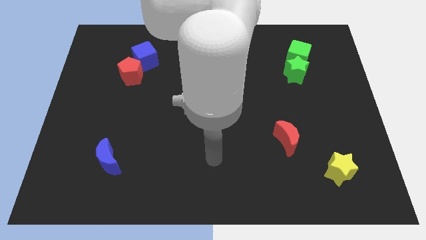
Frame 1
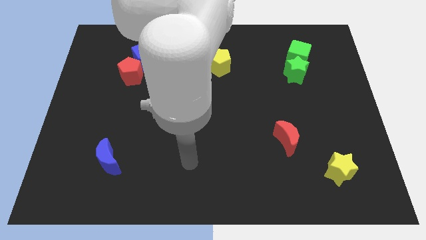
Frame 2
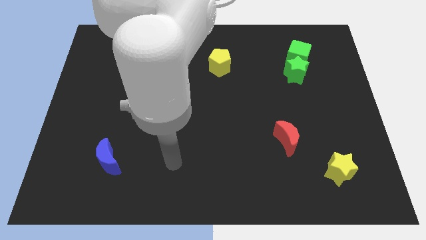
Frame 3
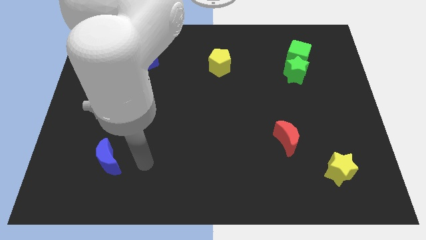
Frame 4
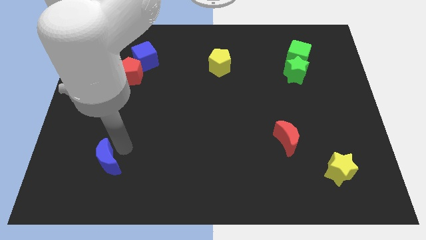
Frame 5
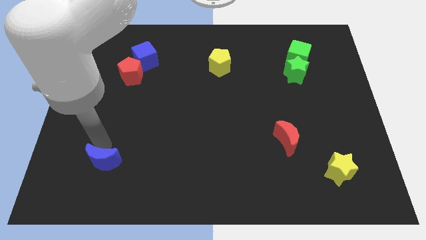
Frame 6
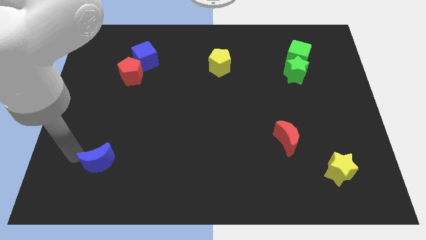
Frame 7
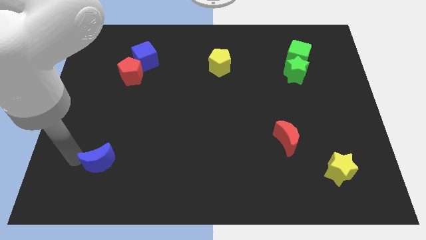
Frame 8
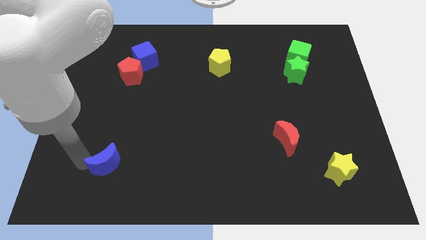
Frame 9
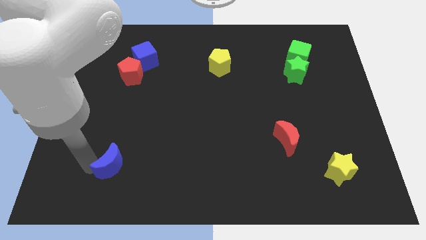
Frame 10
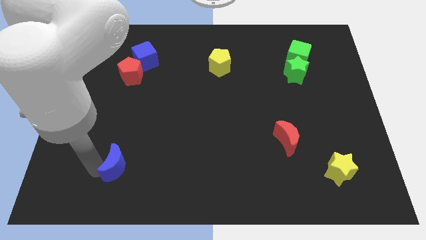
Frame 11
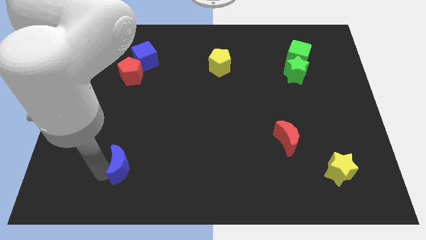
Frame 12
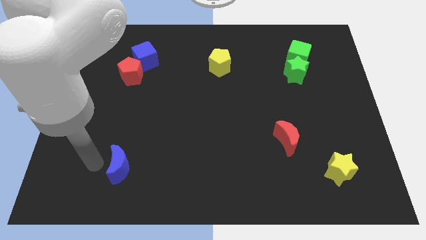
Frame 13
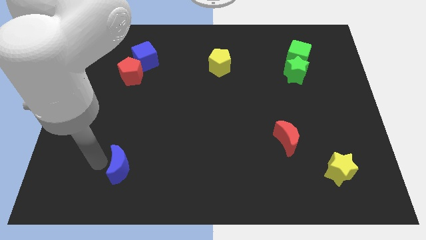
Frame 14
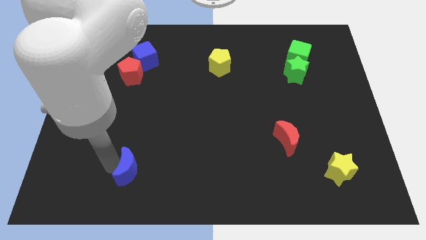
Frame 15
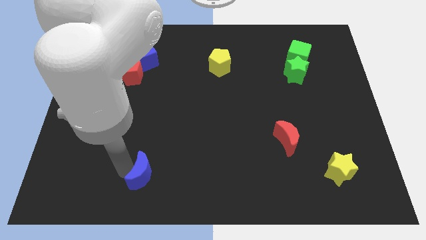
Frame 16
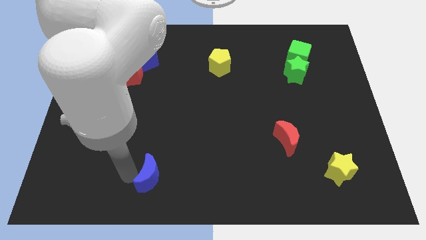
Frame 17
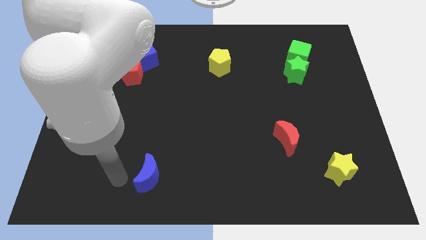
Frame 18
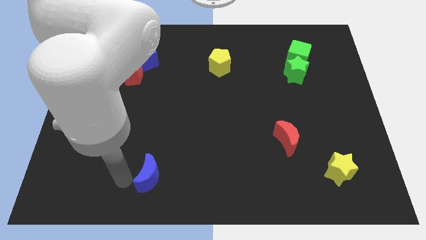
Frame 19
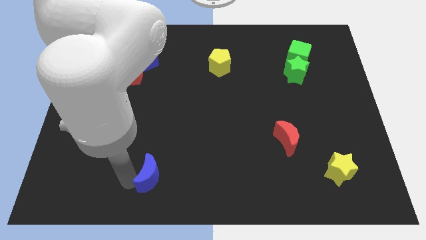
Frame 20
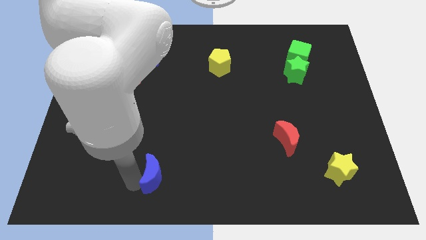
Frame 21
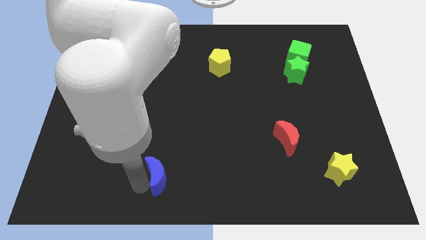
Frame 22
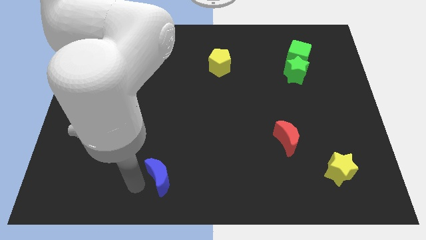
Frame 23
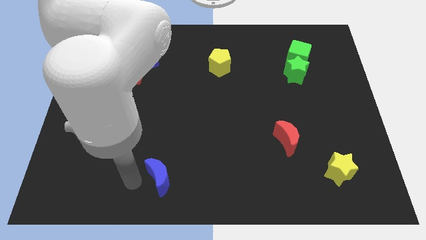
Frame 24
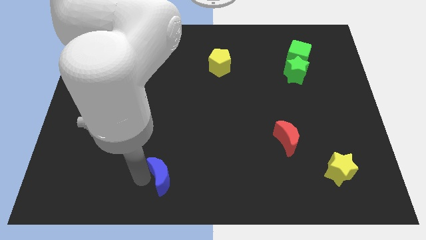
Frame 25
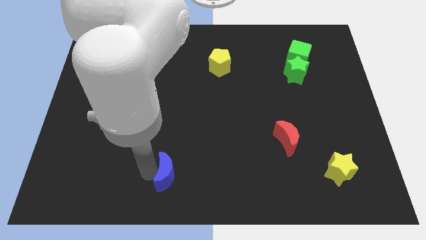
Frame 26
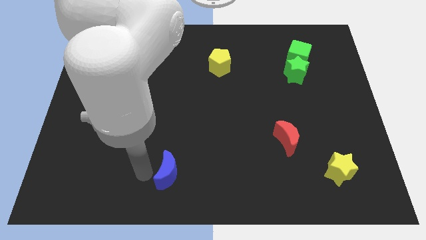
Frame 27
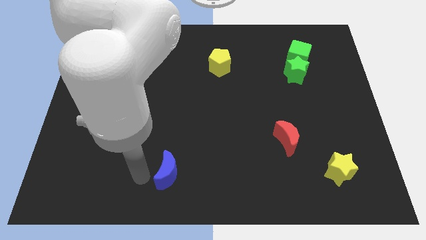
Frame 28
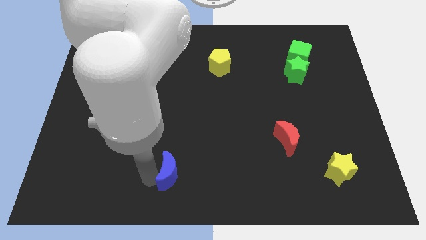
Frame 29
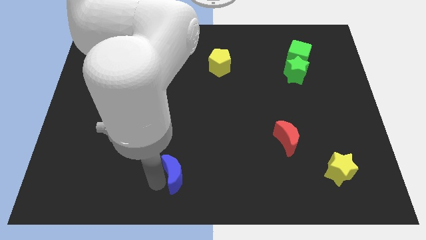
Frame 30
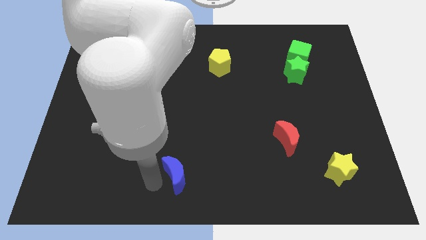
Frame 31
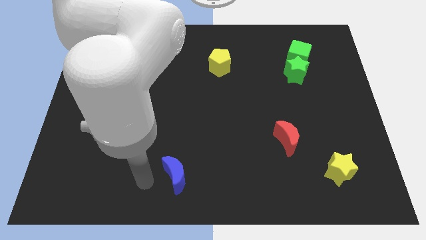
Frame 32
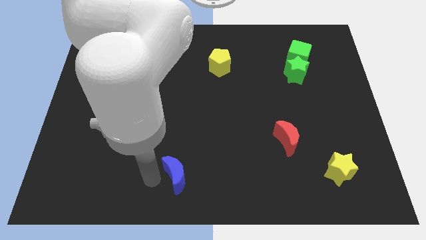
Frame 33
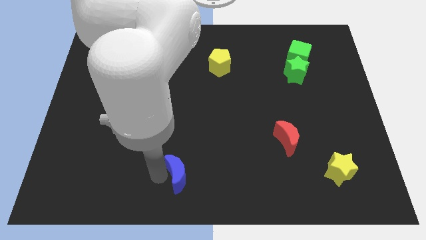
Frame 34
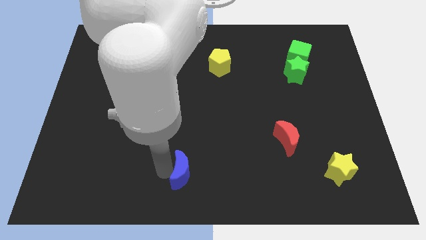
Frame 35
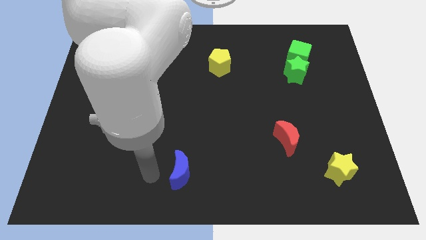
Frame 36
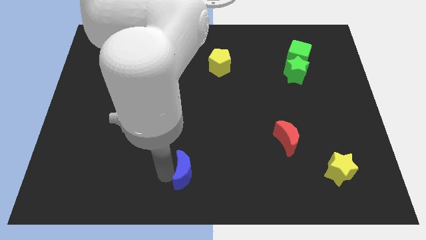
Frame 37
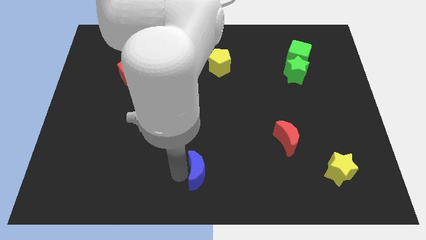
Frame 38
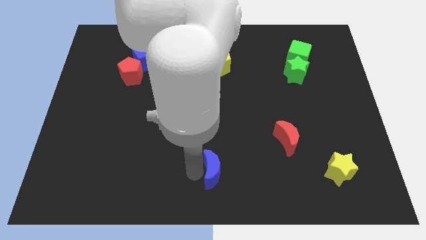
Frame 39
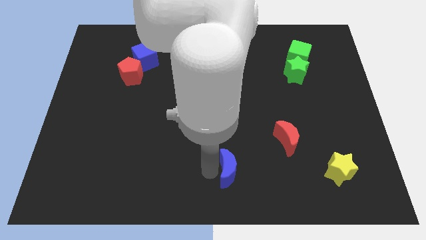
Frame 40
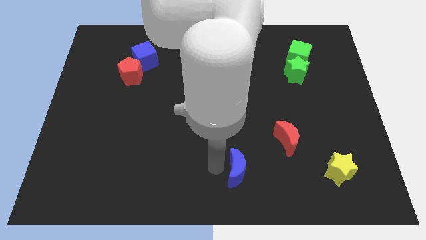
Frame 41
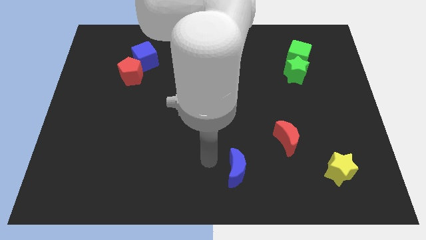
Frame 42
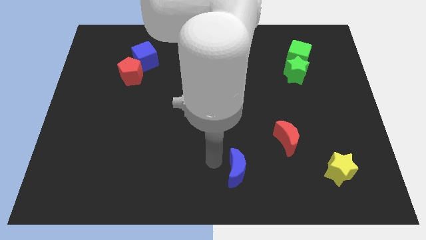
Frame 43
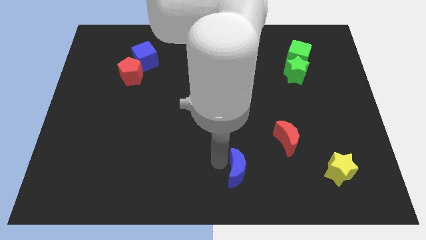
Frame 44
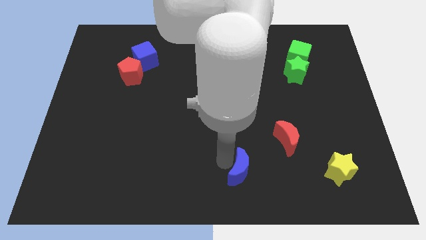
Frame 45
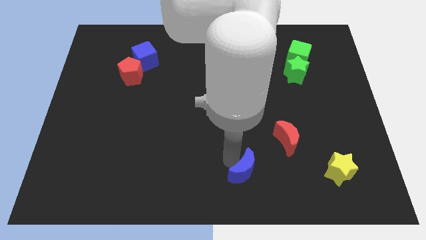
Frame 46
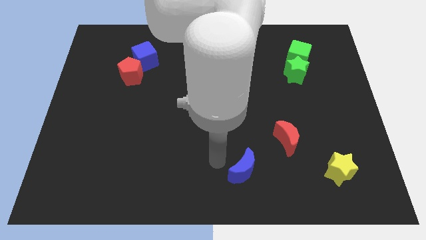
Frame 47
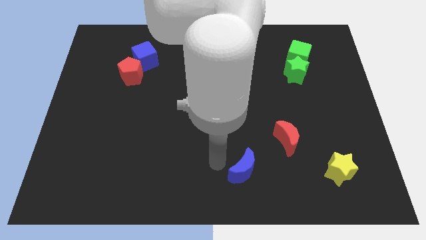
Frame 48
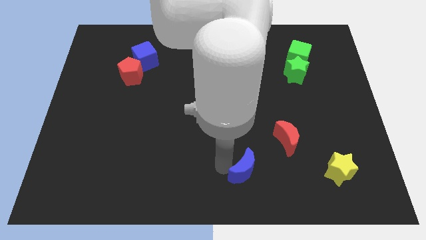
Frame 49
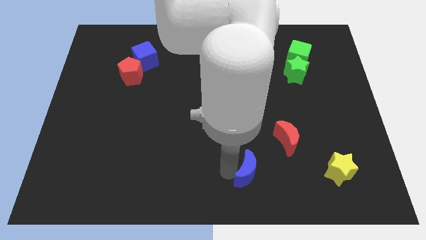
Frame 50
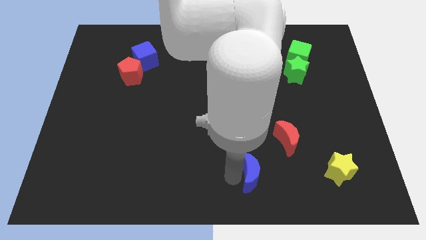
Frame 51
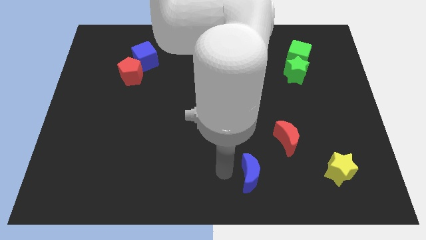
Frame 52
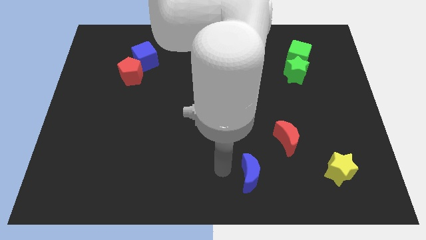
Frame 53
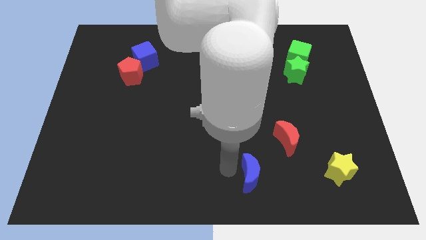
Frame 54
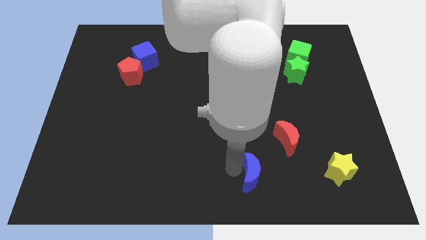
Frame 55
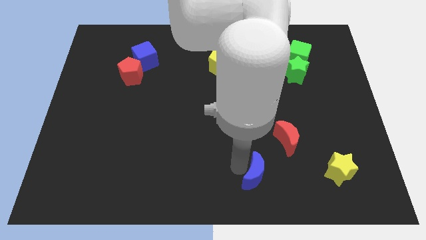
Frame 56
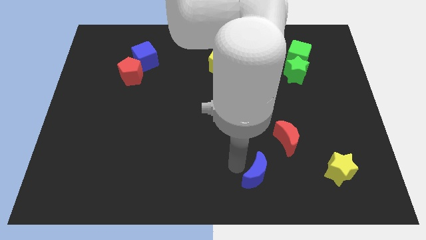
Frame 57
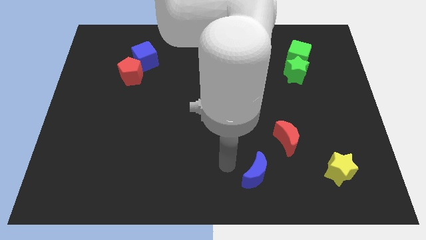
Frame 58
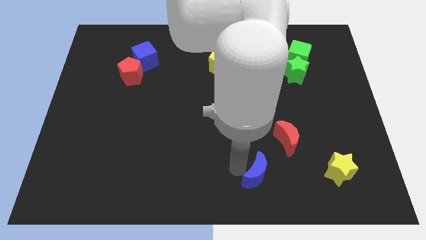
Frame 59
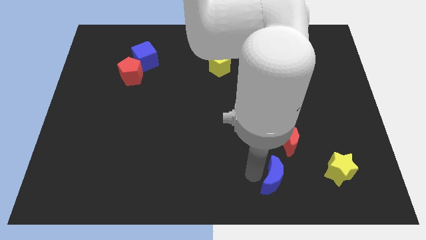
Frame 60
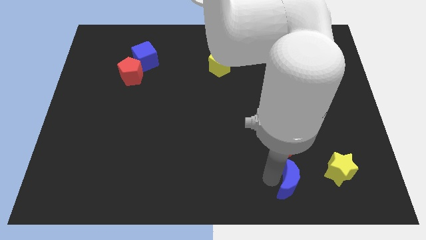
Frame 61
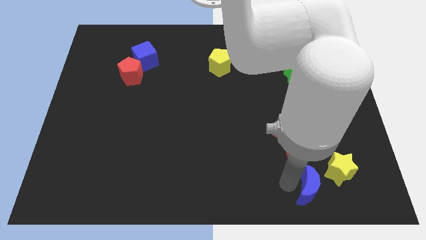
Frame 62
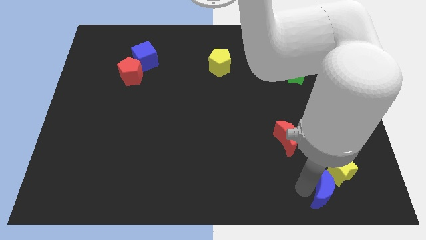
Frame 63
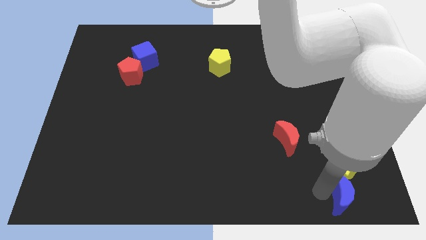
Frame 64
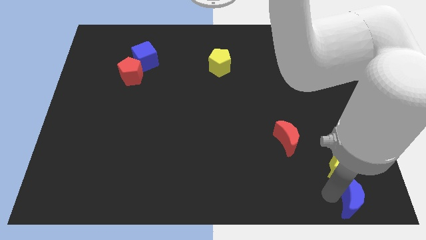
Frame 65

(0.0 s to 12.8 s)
slide the blue moon to the bottom right of the board
